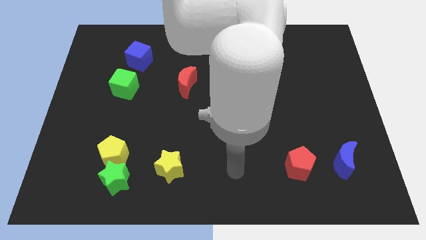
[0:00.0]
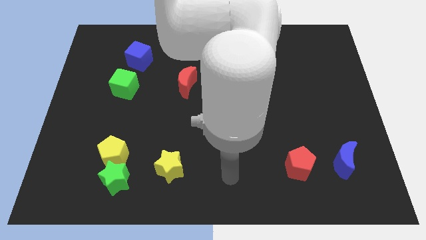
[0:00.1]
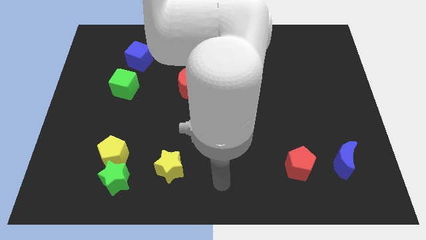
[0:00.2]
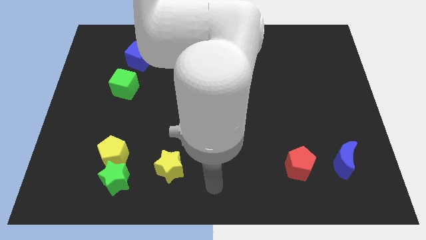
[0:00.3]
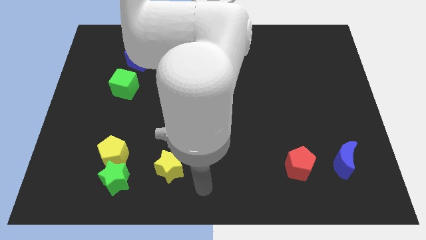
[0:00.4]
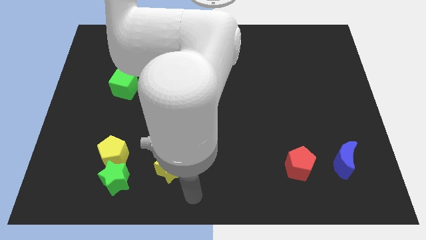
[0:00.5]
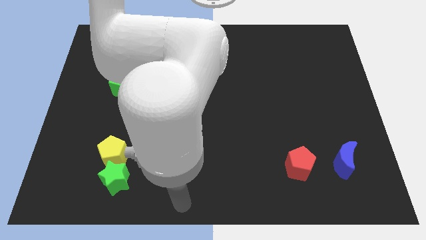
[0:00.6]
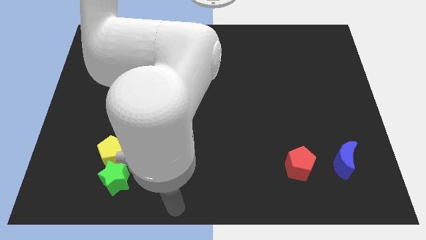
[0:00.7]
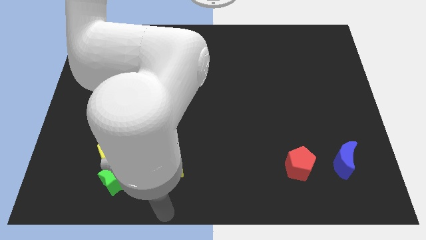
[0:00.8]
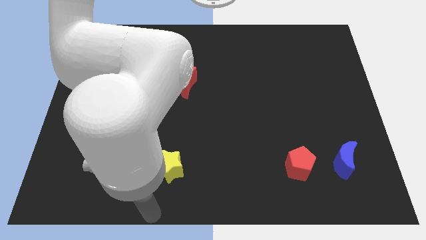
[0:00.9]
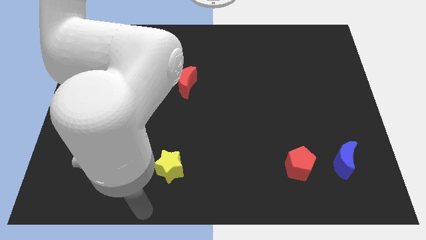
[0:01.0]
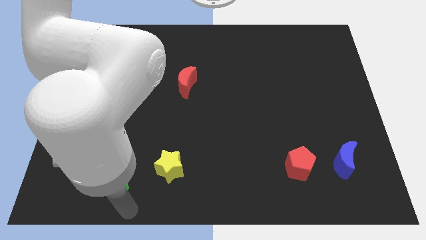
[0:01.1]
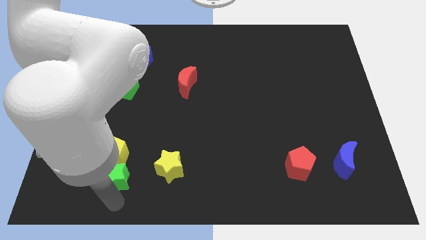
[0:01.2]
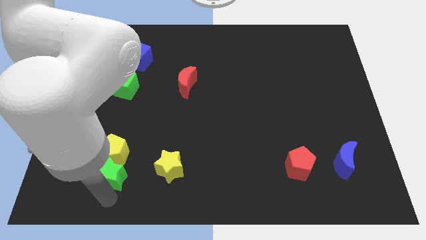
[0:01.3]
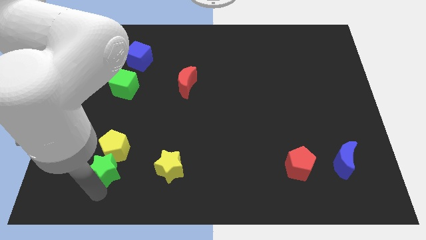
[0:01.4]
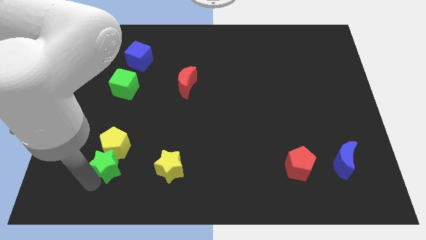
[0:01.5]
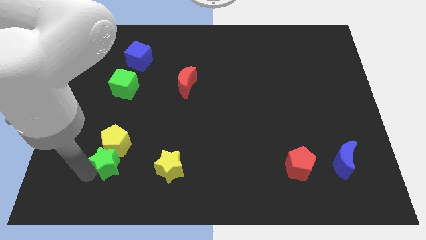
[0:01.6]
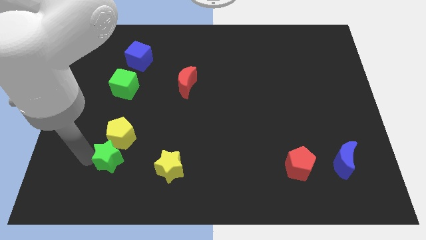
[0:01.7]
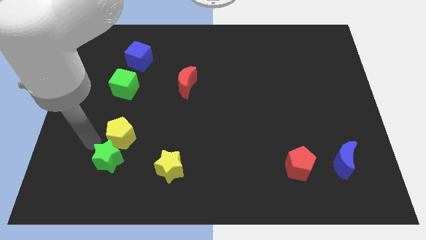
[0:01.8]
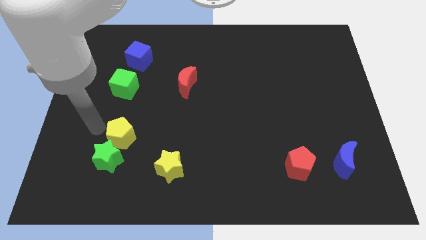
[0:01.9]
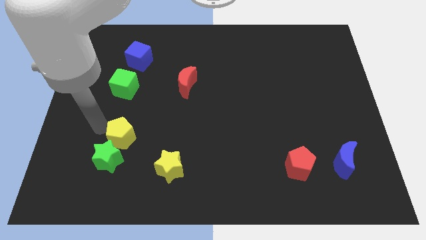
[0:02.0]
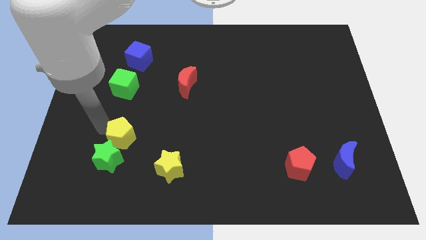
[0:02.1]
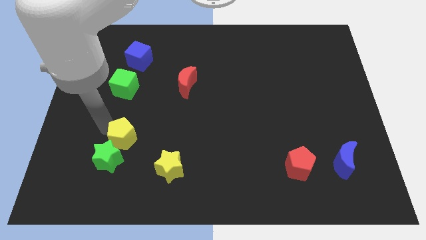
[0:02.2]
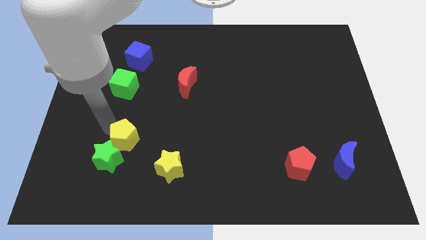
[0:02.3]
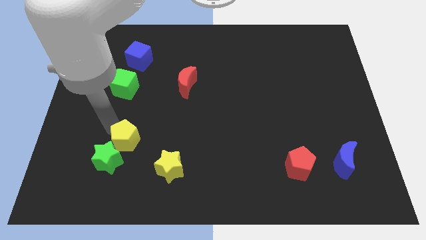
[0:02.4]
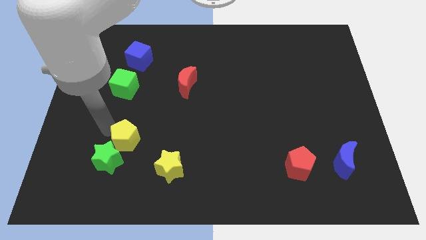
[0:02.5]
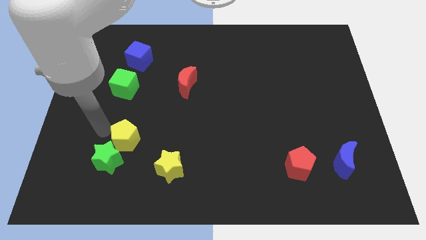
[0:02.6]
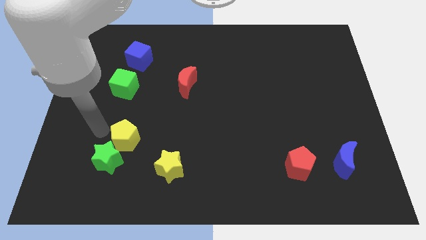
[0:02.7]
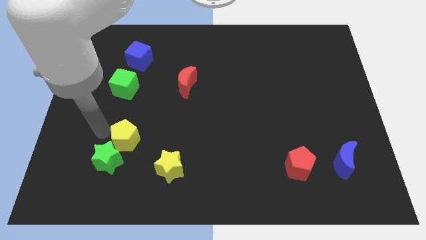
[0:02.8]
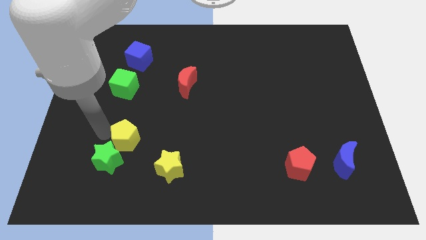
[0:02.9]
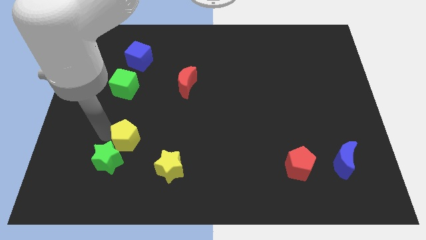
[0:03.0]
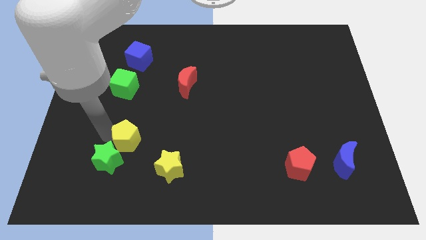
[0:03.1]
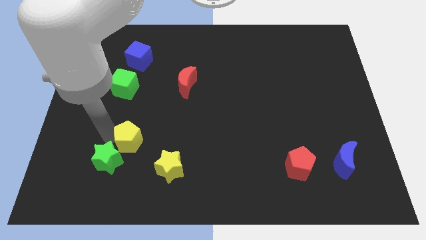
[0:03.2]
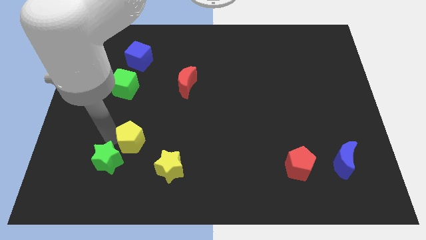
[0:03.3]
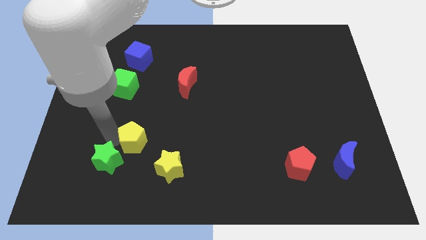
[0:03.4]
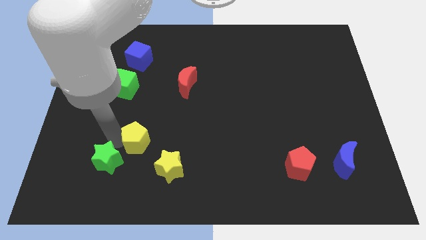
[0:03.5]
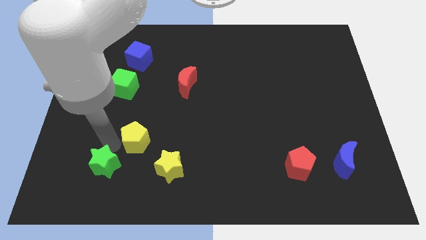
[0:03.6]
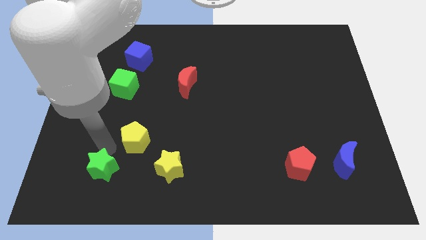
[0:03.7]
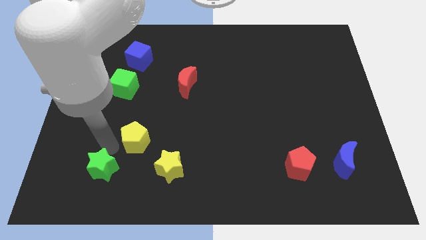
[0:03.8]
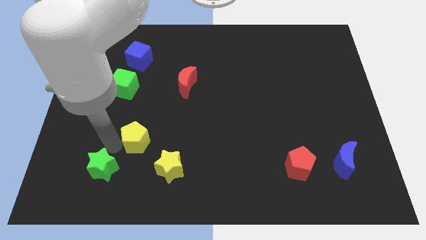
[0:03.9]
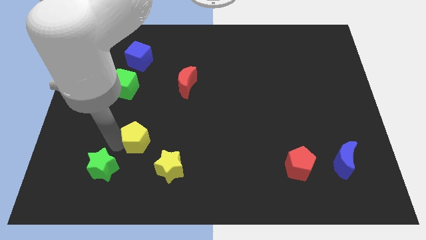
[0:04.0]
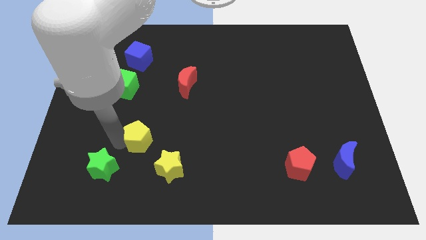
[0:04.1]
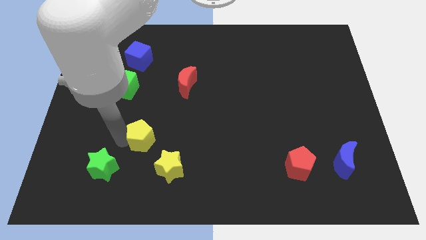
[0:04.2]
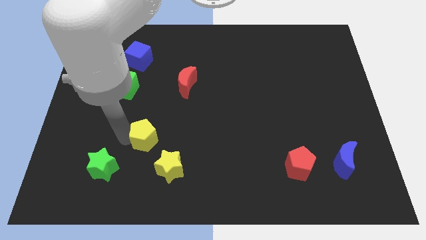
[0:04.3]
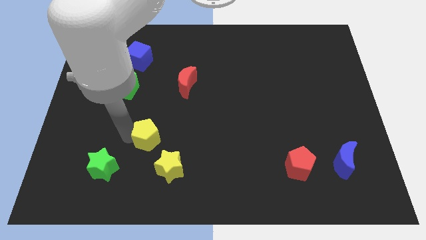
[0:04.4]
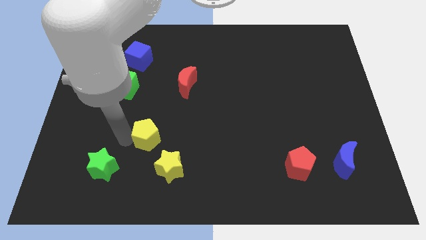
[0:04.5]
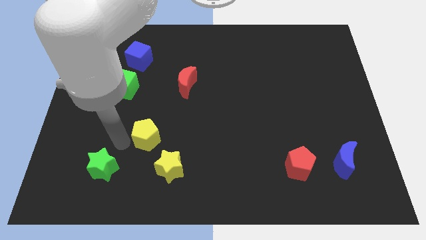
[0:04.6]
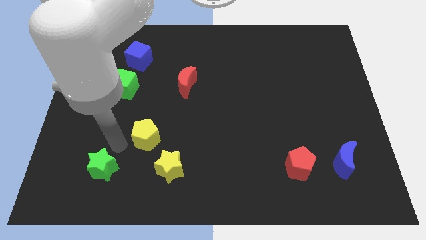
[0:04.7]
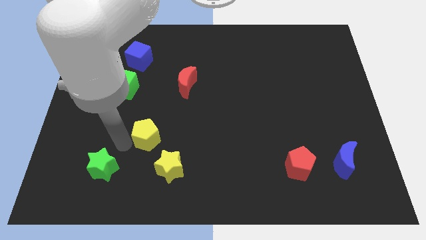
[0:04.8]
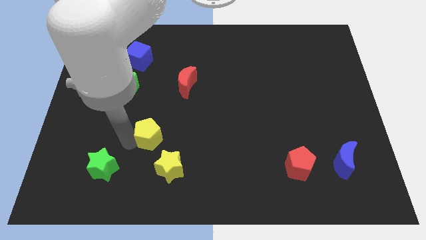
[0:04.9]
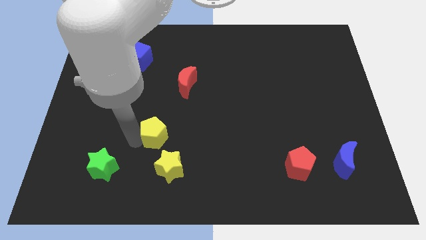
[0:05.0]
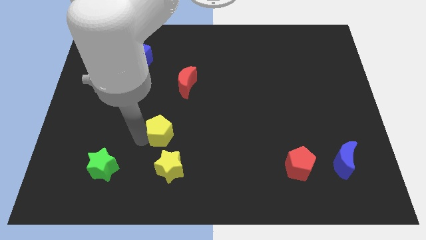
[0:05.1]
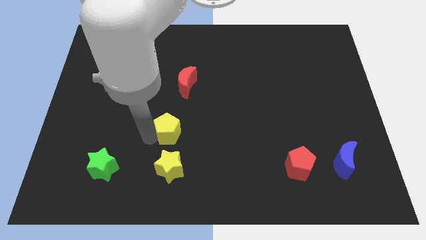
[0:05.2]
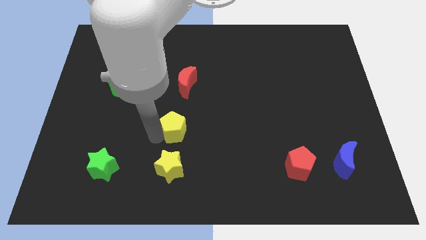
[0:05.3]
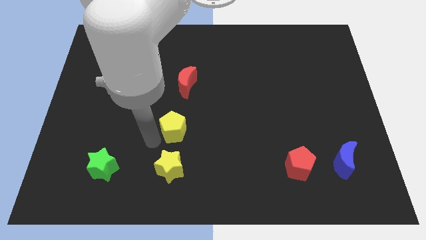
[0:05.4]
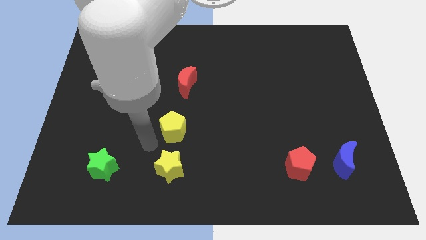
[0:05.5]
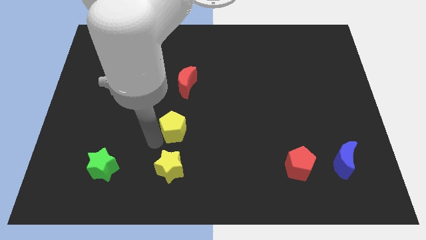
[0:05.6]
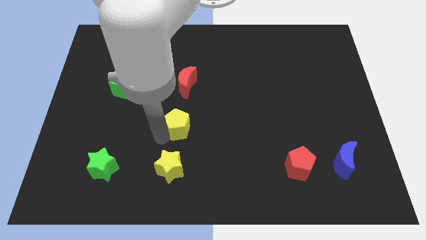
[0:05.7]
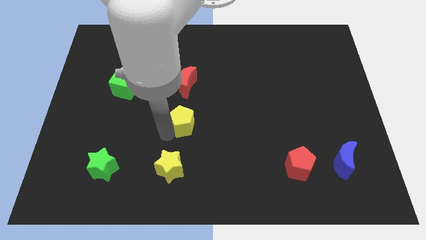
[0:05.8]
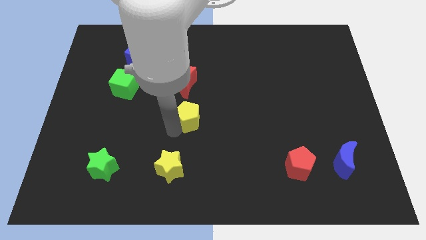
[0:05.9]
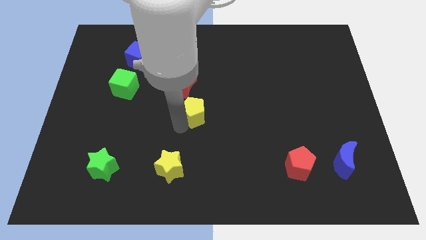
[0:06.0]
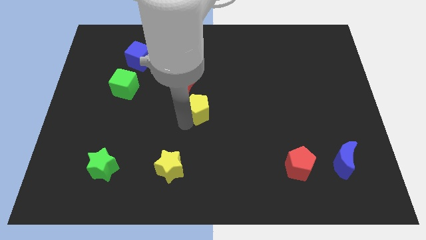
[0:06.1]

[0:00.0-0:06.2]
move the yellow pentagon diagonally upwards and right

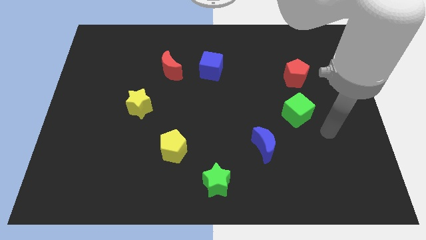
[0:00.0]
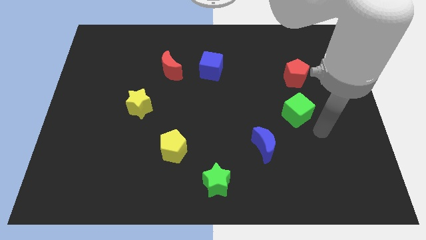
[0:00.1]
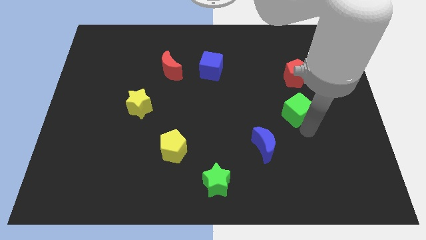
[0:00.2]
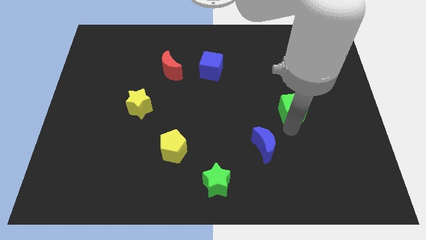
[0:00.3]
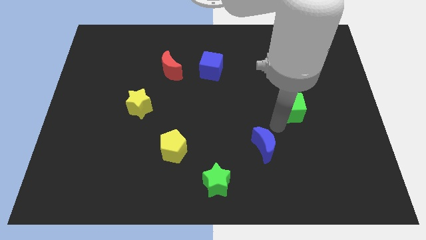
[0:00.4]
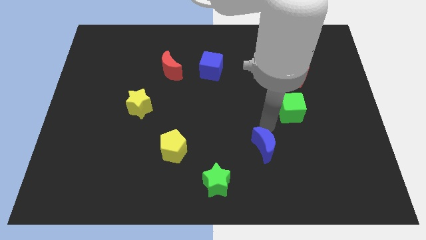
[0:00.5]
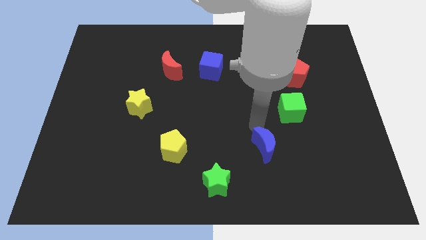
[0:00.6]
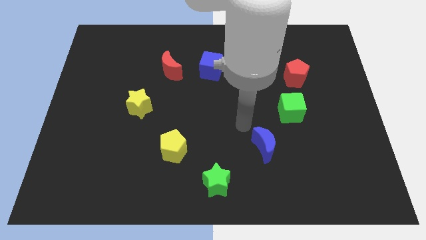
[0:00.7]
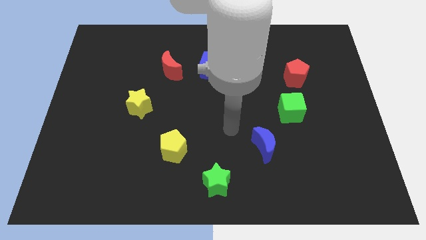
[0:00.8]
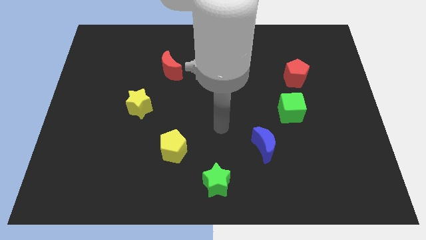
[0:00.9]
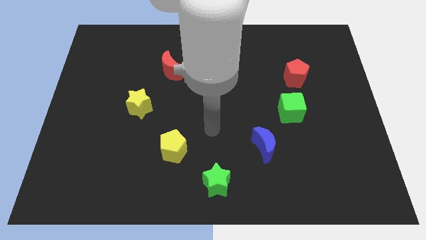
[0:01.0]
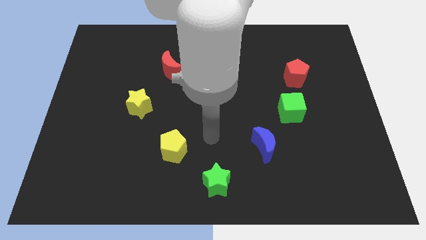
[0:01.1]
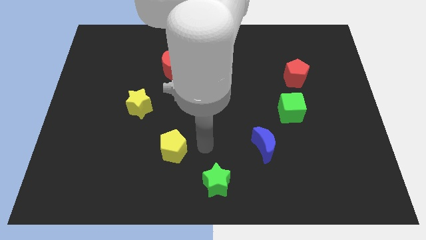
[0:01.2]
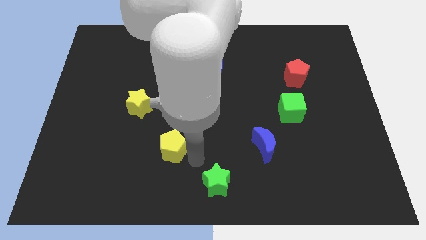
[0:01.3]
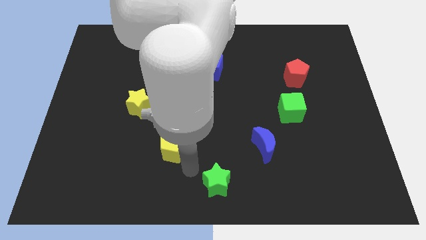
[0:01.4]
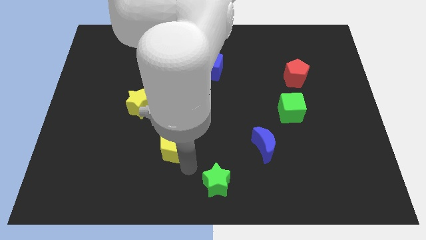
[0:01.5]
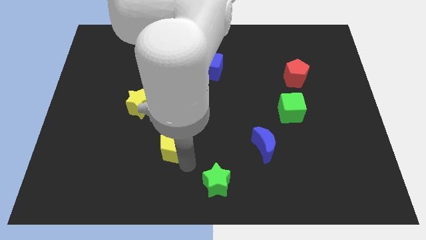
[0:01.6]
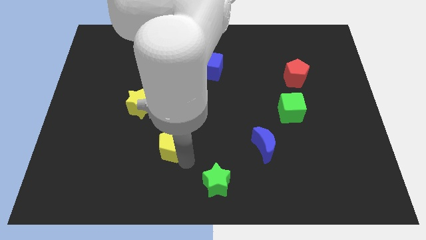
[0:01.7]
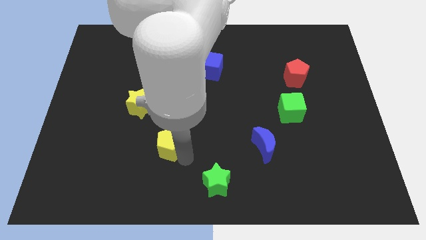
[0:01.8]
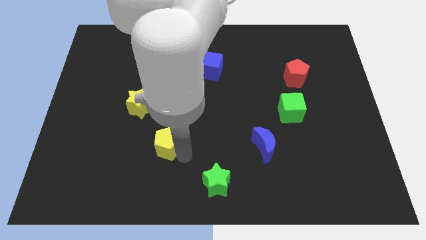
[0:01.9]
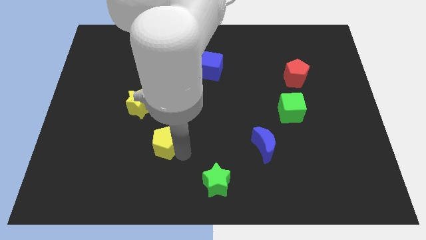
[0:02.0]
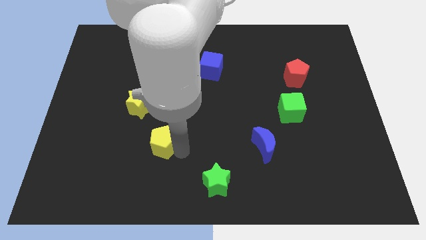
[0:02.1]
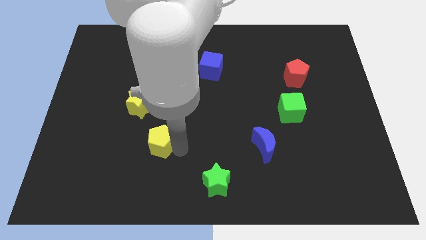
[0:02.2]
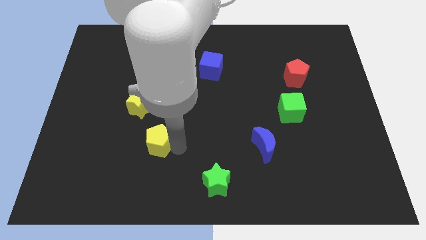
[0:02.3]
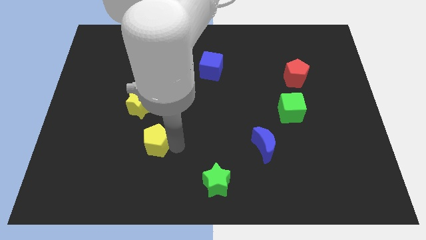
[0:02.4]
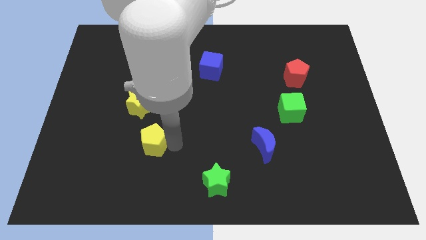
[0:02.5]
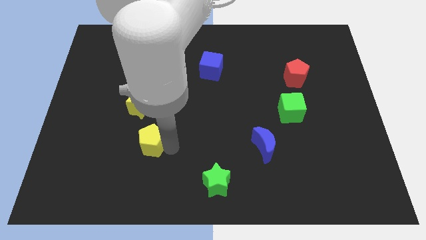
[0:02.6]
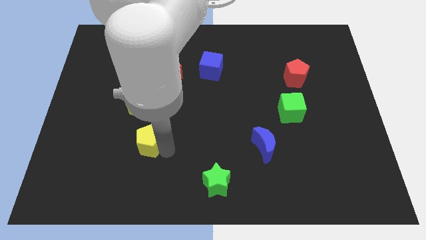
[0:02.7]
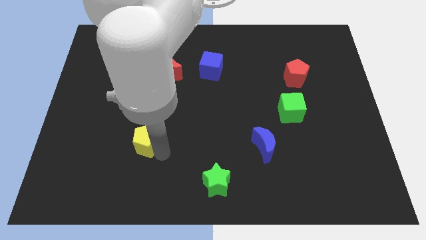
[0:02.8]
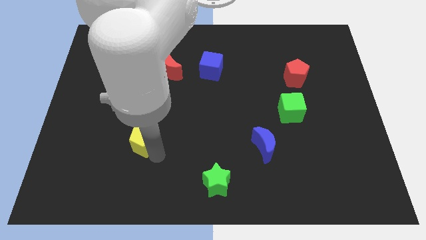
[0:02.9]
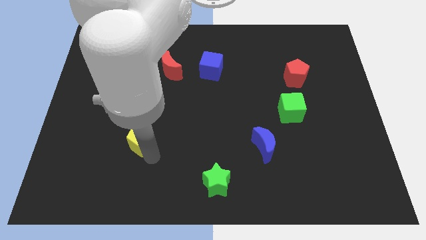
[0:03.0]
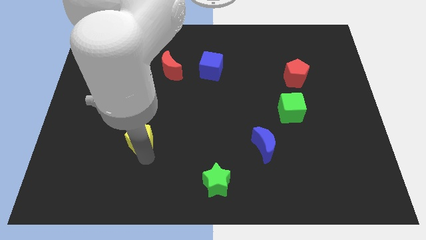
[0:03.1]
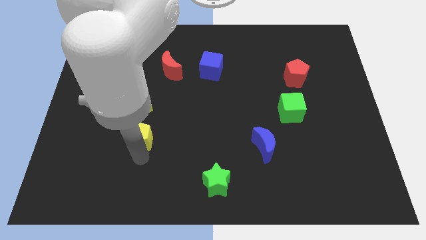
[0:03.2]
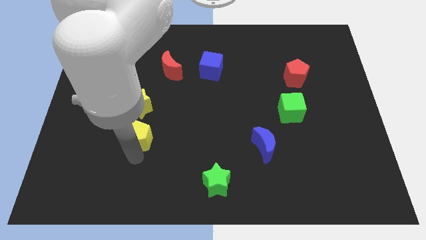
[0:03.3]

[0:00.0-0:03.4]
move the yellow pentagon up and left diagonally slightly
